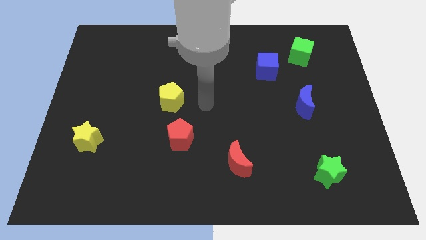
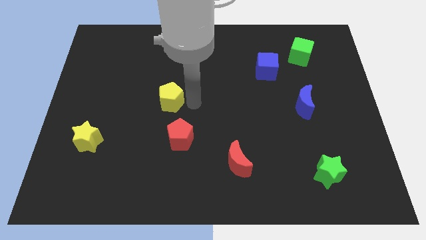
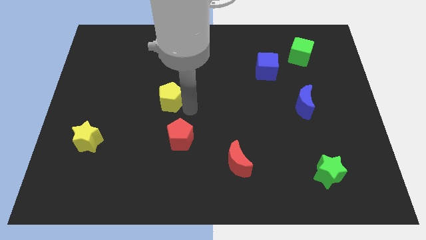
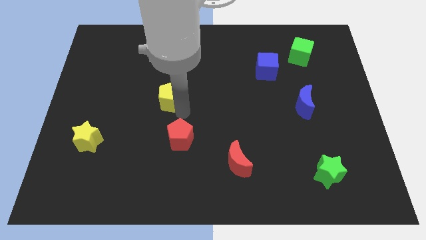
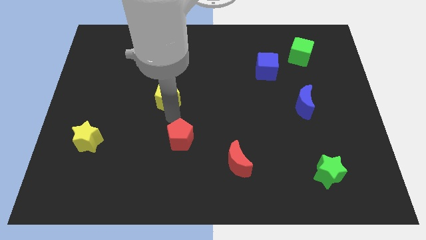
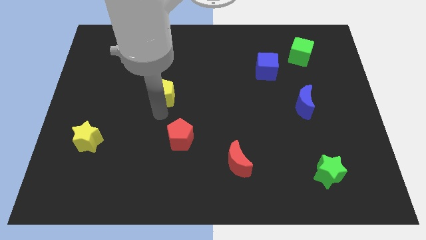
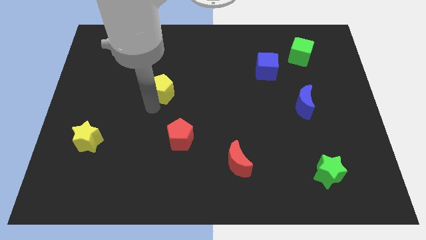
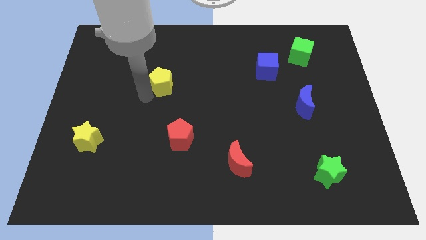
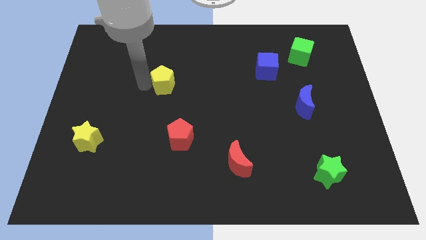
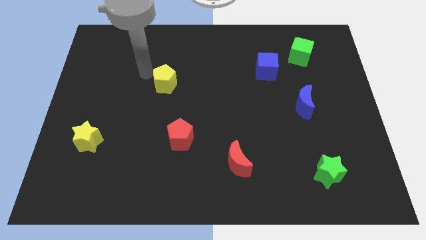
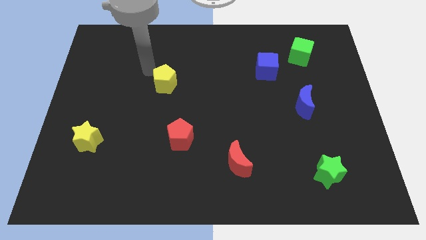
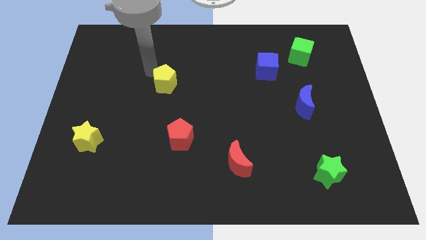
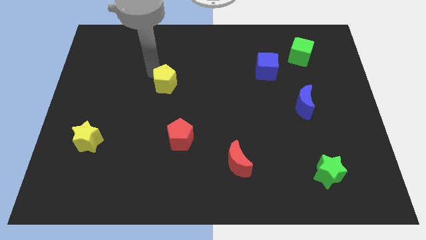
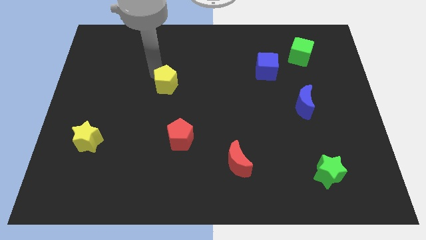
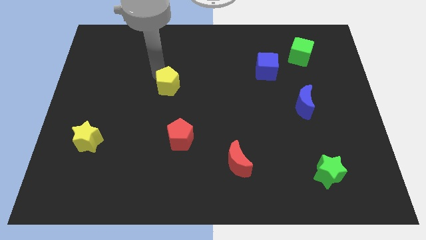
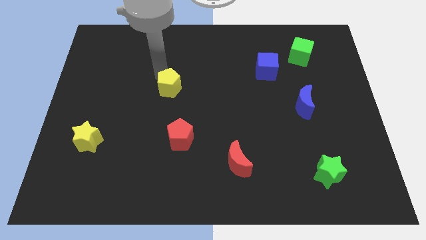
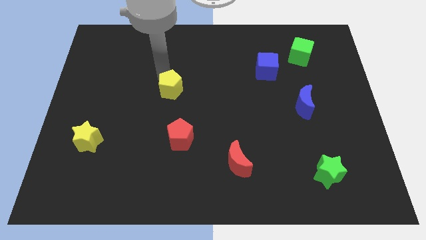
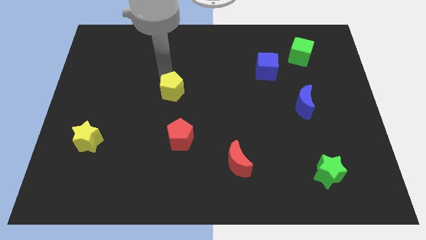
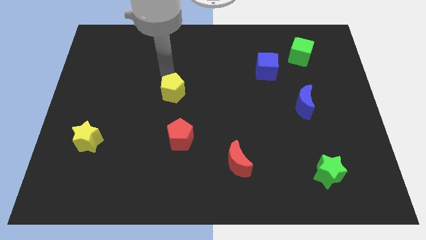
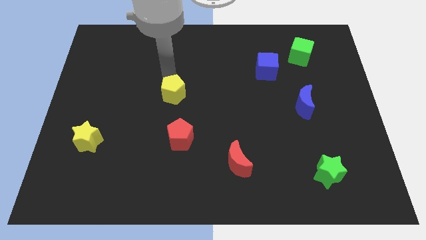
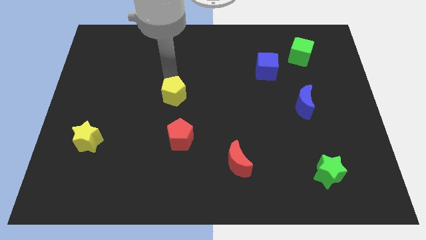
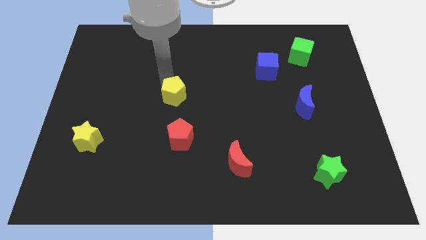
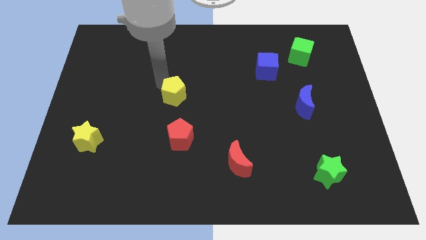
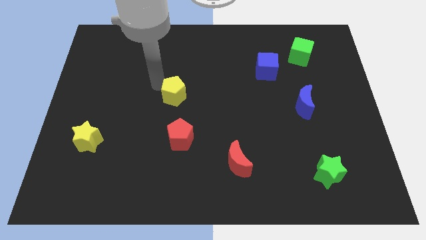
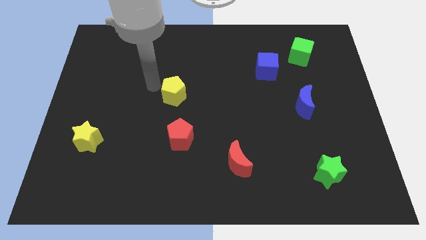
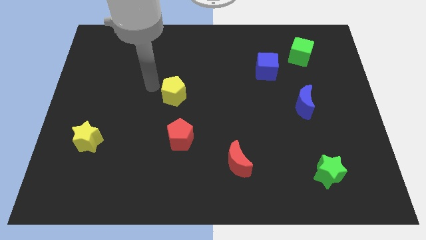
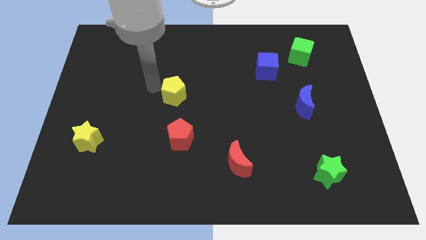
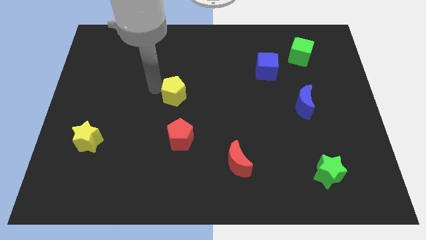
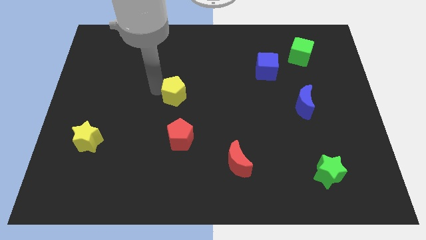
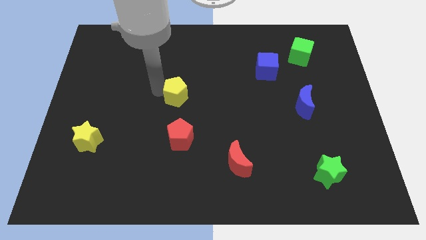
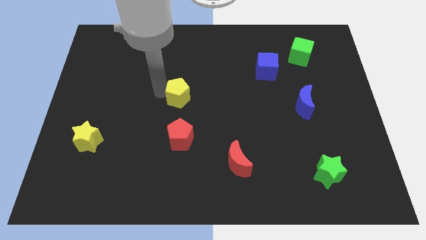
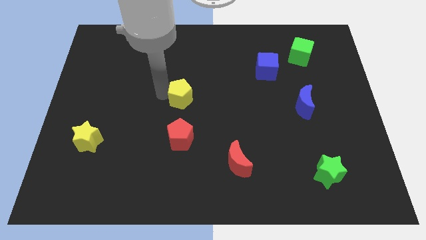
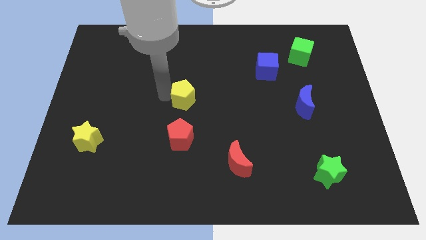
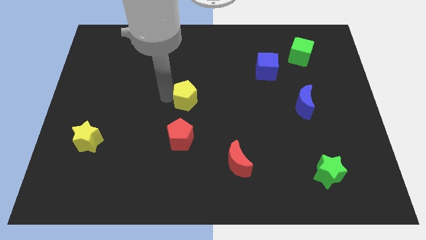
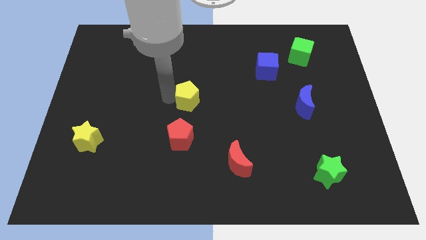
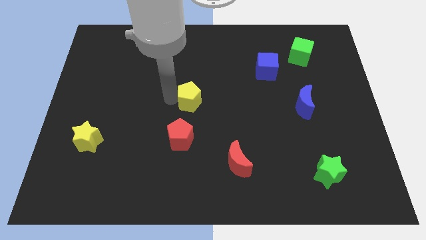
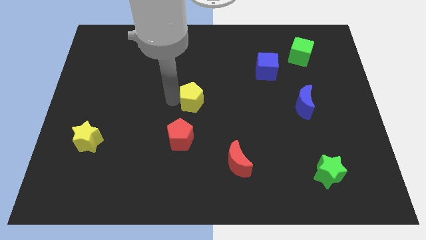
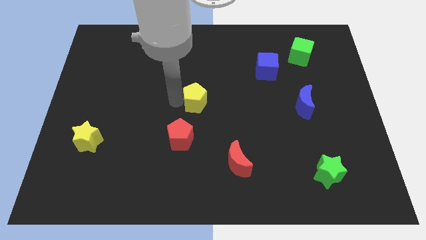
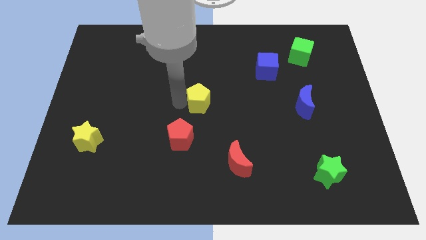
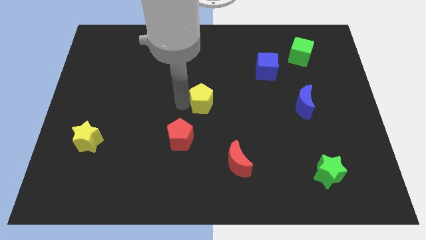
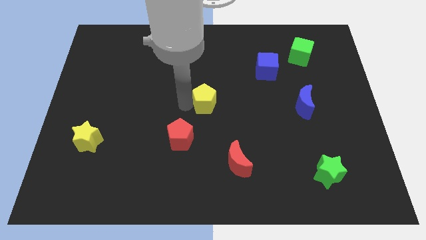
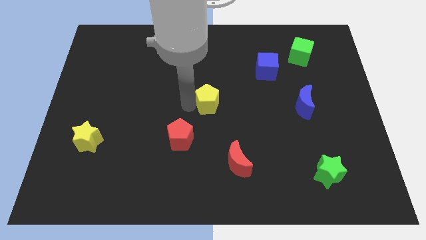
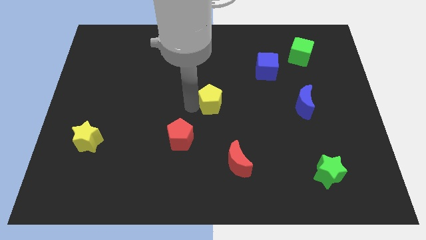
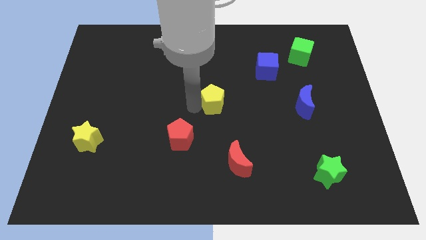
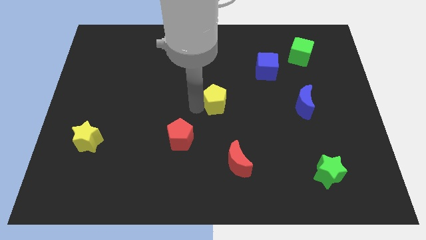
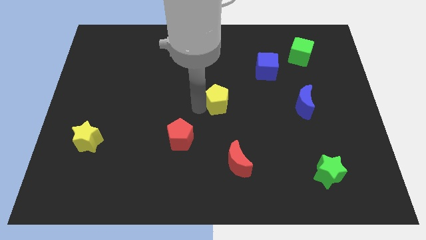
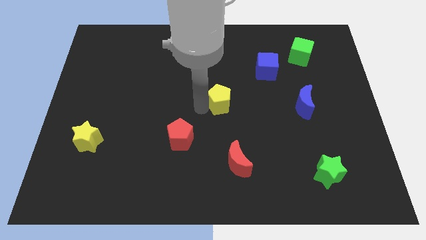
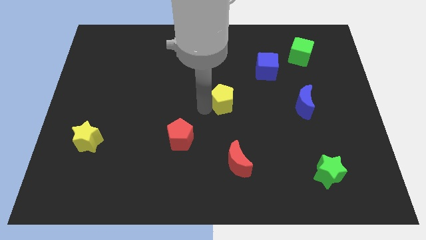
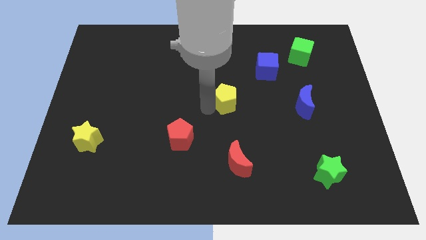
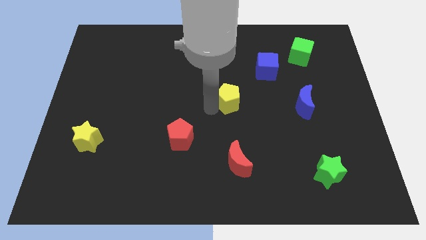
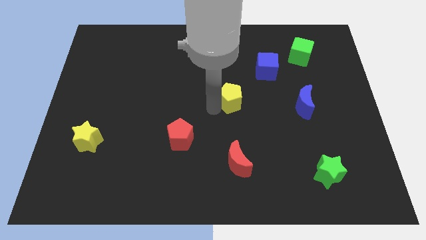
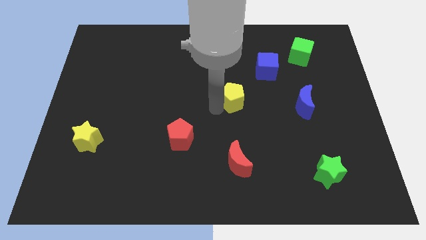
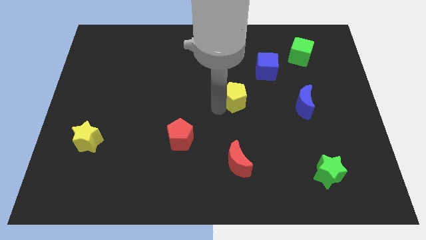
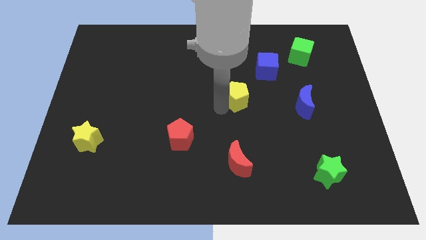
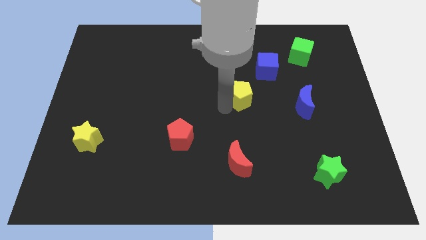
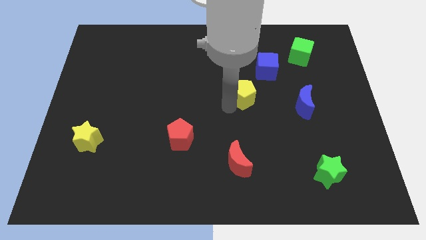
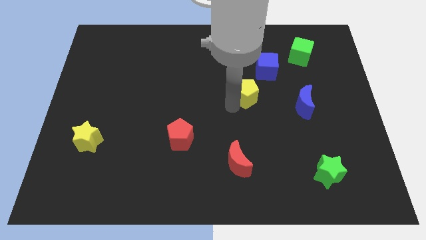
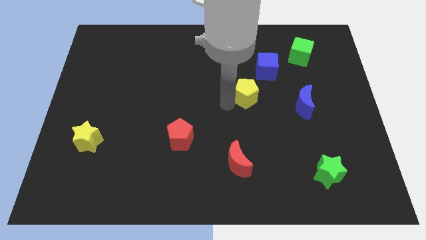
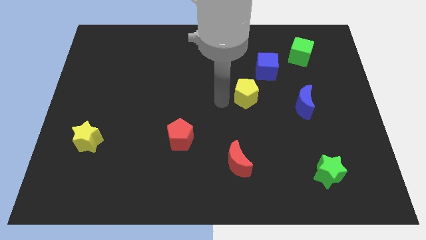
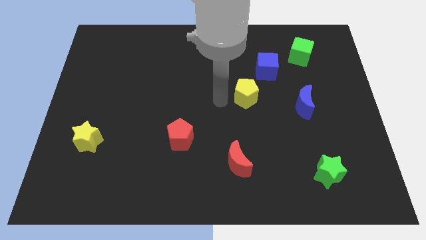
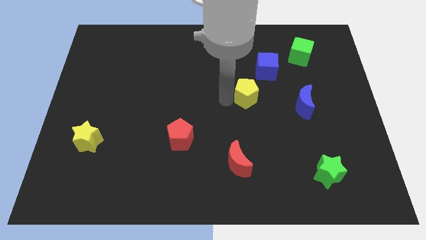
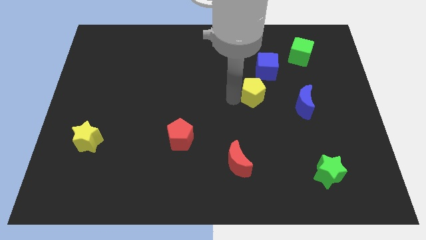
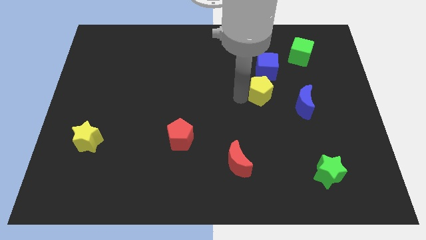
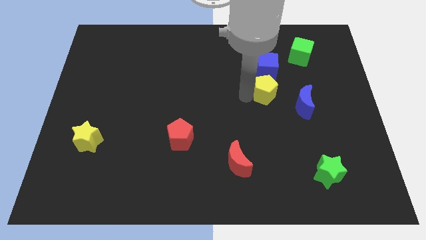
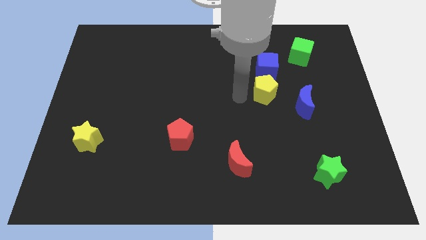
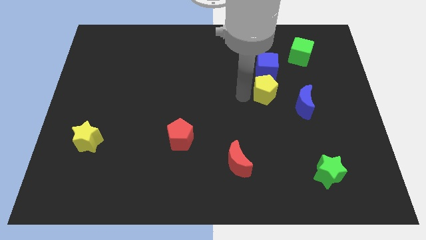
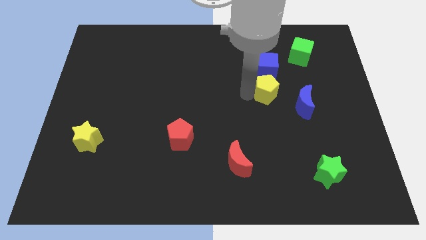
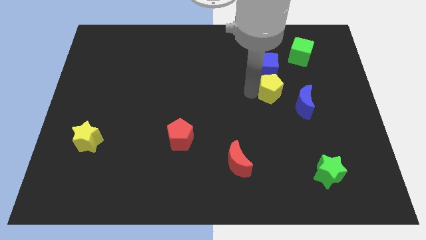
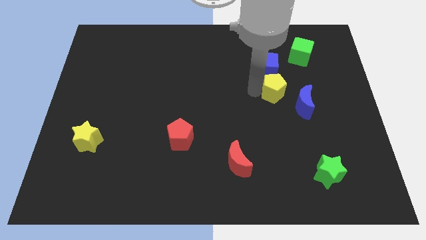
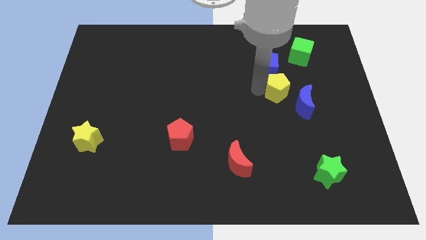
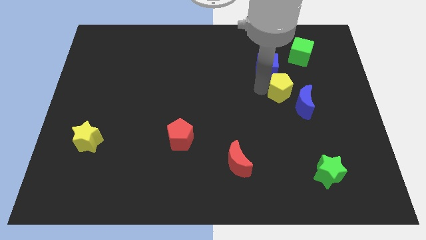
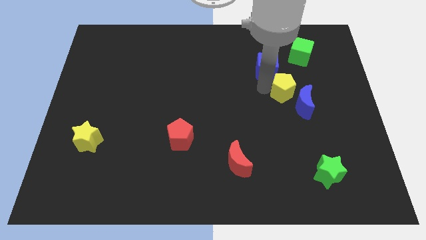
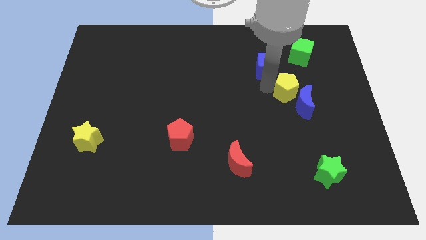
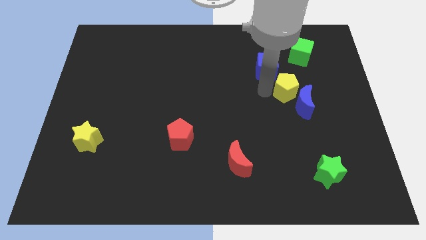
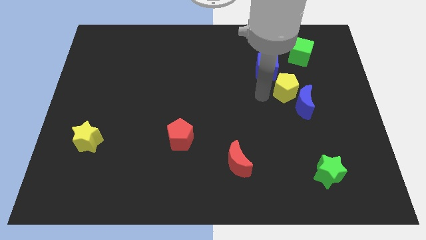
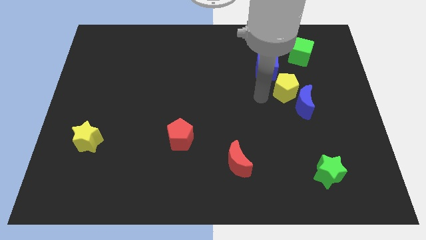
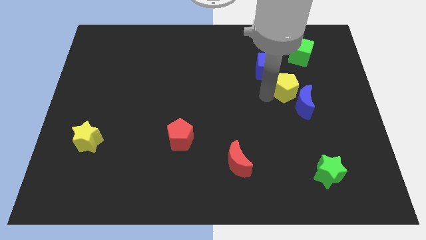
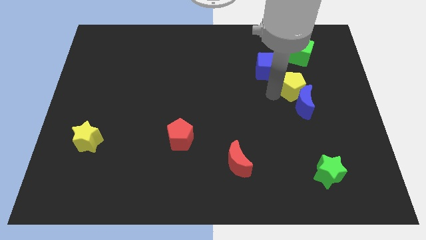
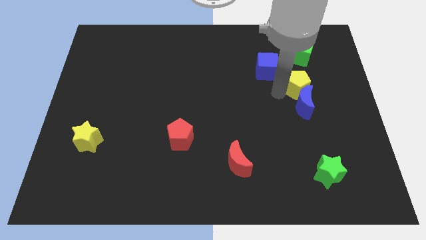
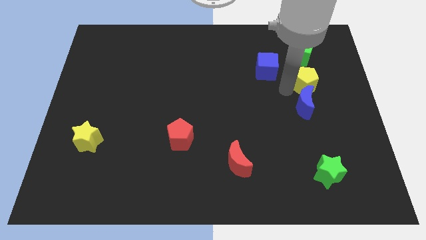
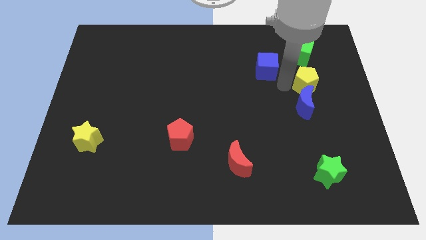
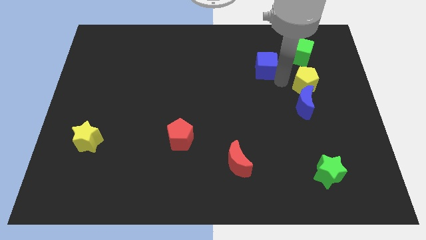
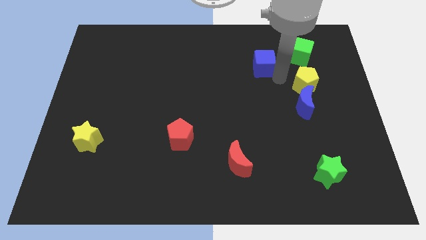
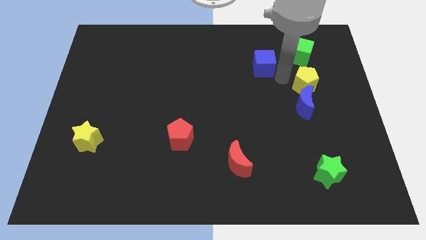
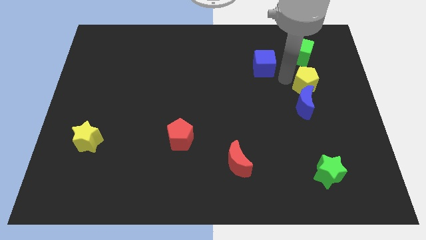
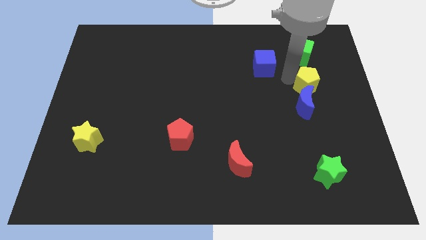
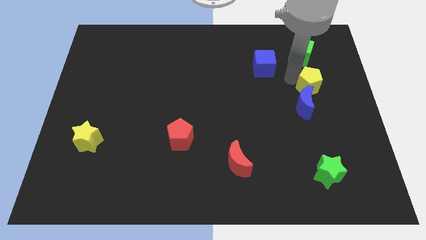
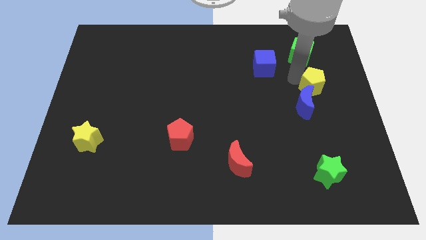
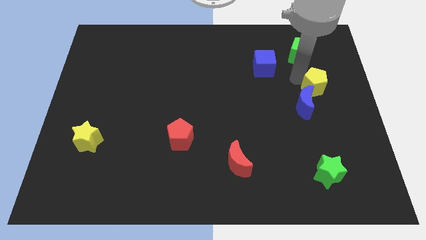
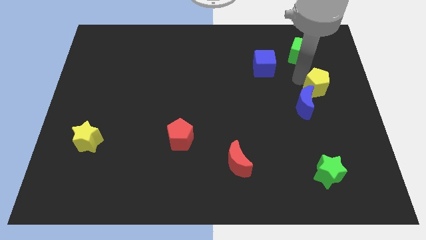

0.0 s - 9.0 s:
put the yellow pentagon to the right side of the board
